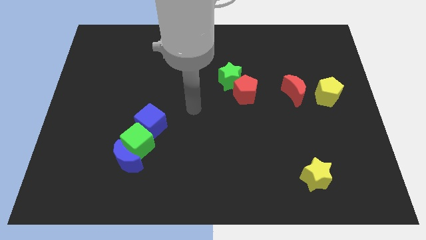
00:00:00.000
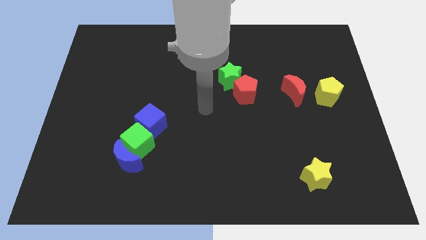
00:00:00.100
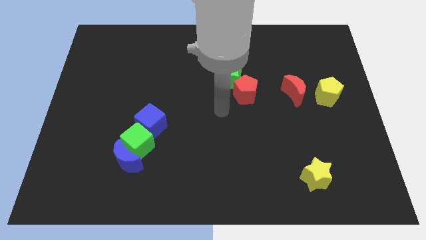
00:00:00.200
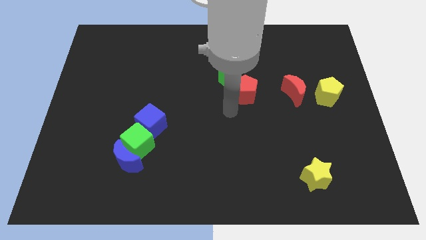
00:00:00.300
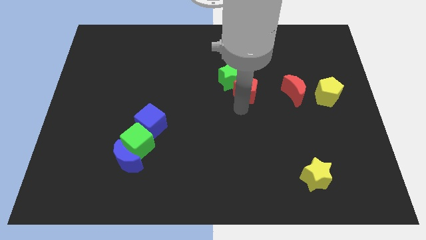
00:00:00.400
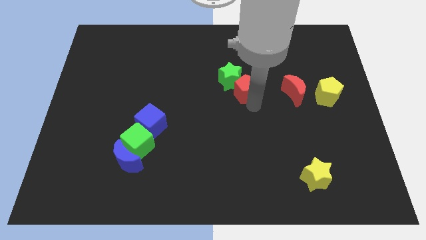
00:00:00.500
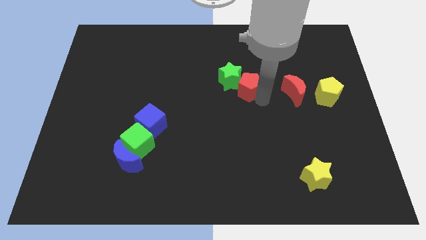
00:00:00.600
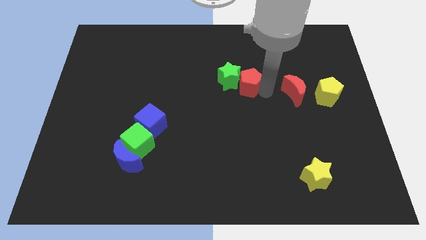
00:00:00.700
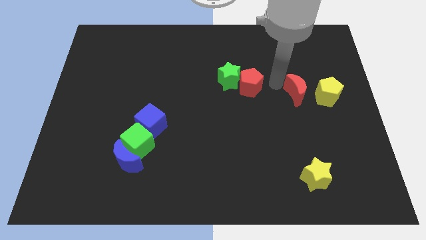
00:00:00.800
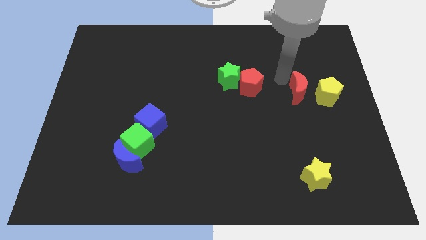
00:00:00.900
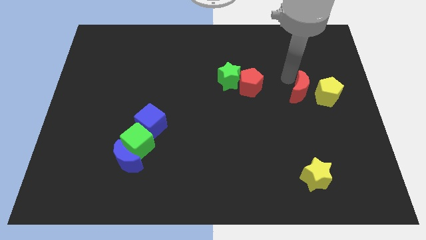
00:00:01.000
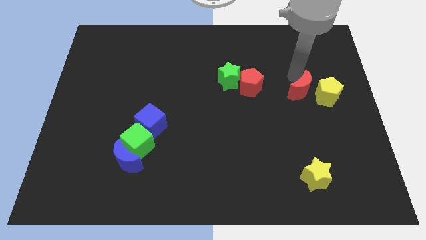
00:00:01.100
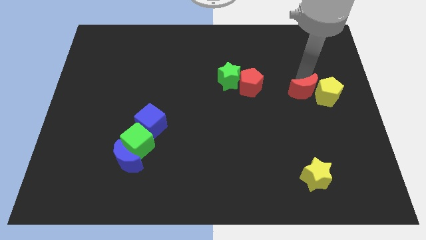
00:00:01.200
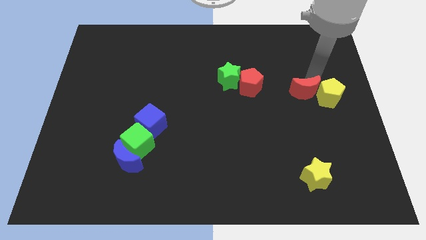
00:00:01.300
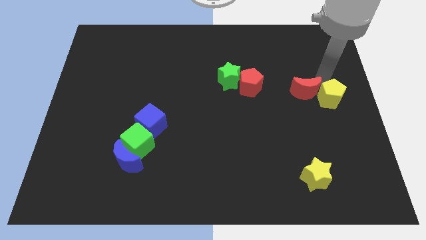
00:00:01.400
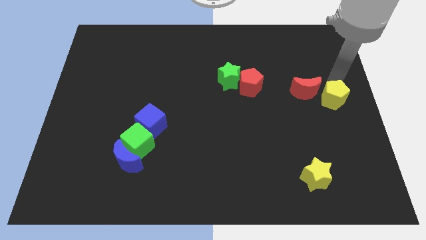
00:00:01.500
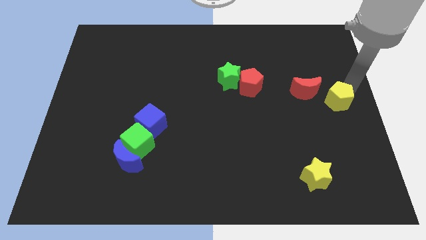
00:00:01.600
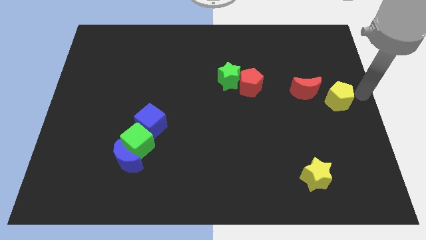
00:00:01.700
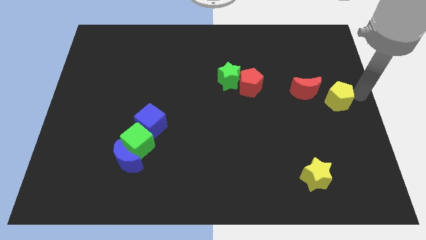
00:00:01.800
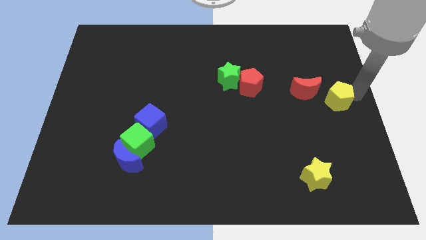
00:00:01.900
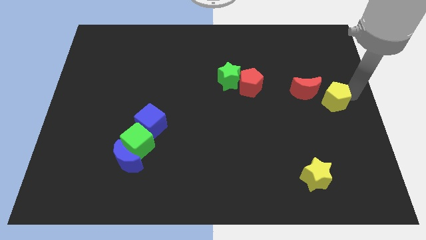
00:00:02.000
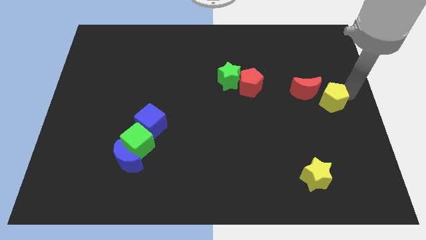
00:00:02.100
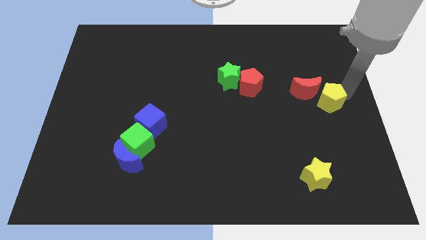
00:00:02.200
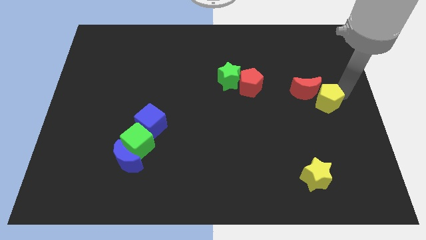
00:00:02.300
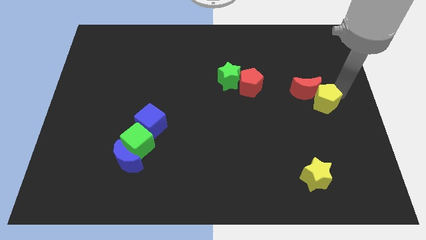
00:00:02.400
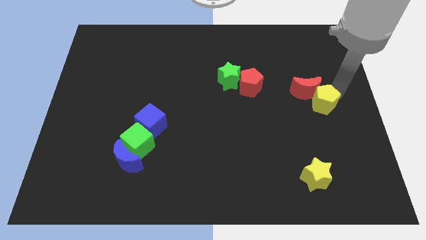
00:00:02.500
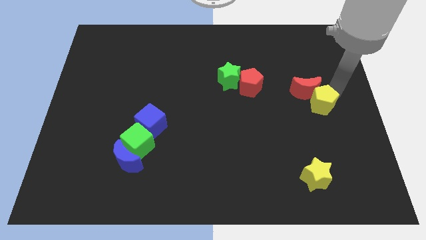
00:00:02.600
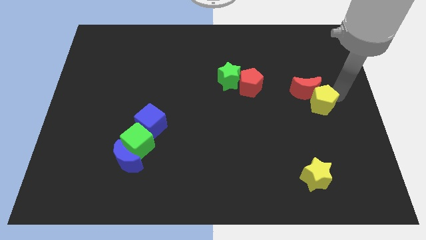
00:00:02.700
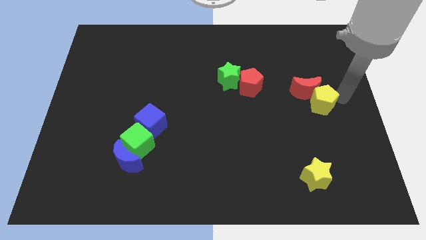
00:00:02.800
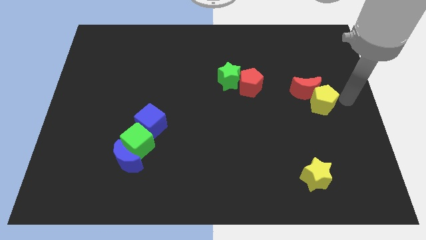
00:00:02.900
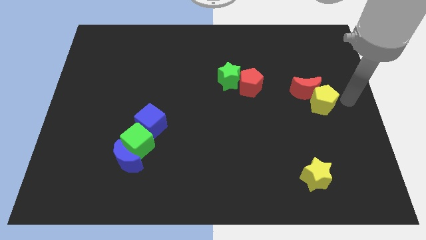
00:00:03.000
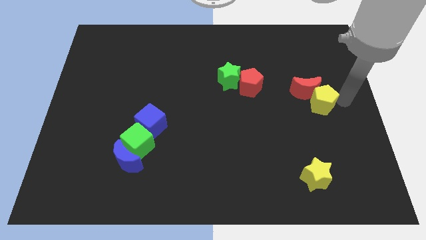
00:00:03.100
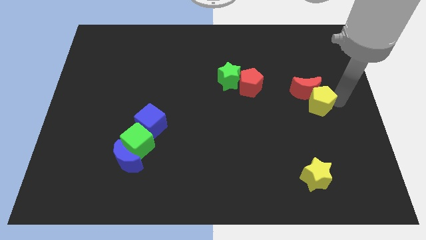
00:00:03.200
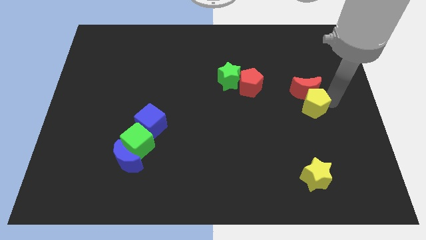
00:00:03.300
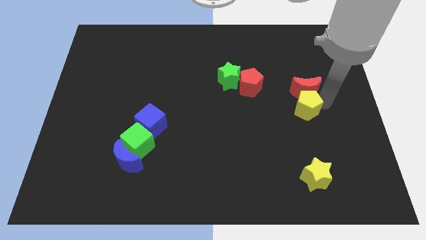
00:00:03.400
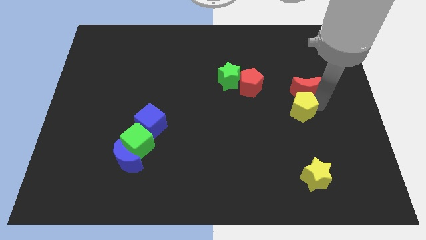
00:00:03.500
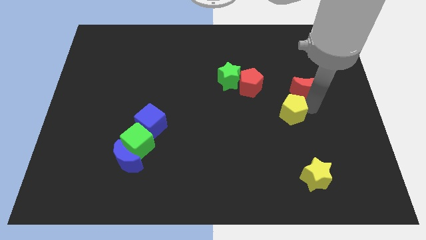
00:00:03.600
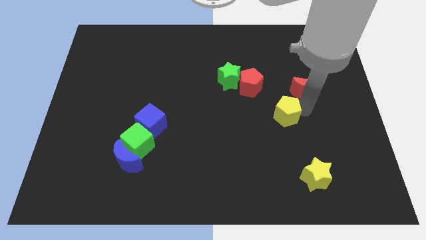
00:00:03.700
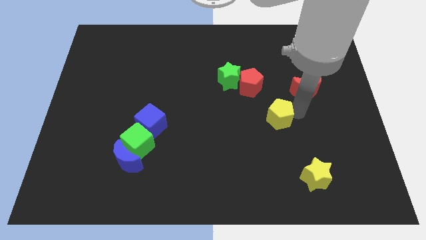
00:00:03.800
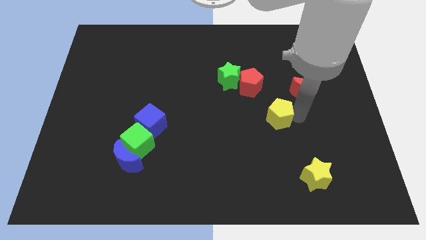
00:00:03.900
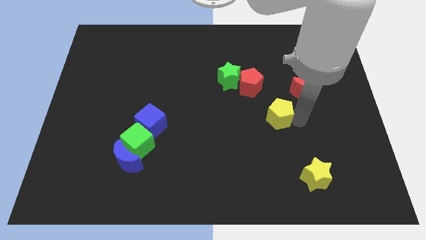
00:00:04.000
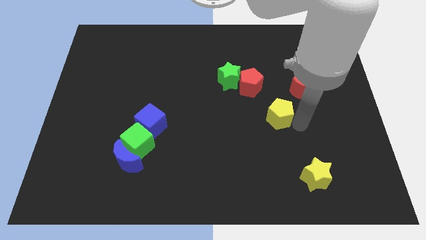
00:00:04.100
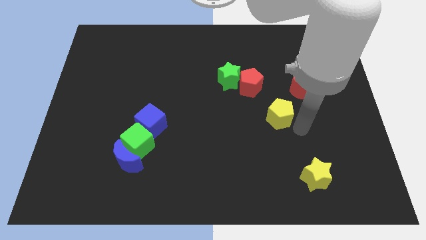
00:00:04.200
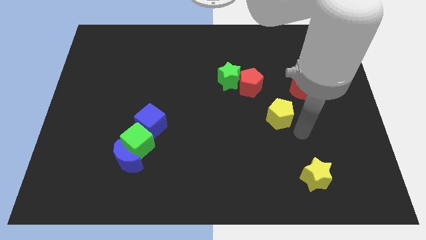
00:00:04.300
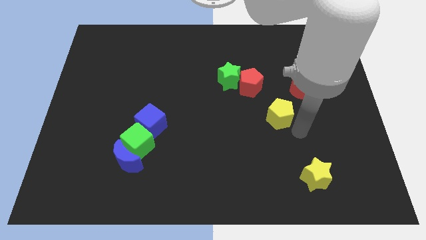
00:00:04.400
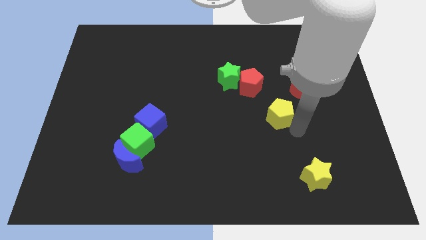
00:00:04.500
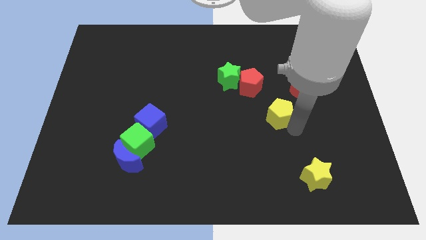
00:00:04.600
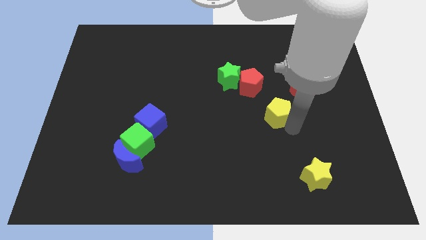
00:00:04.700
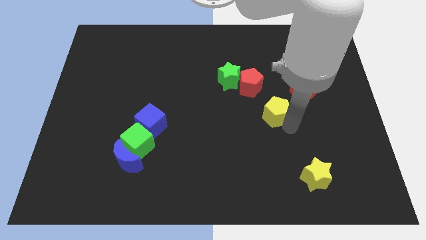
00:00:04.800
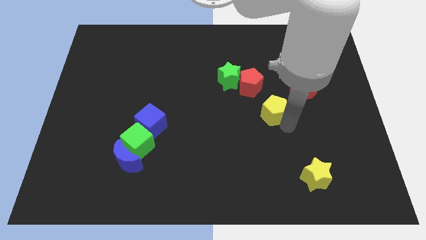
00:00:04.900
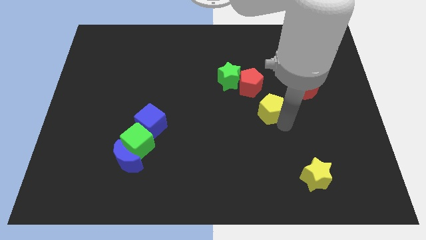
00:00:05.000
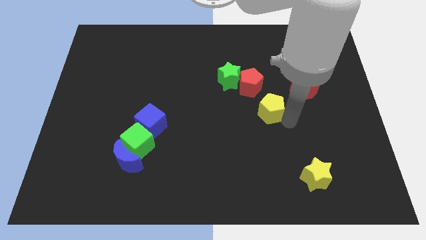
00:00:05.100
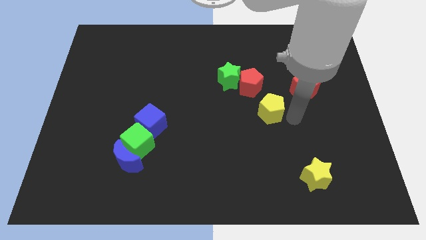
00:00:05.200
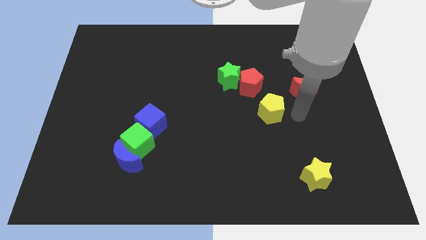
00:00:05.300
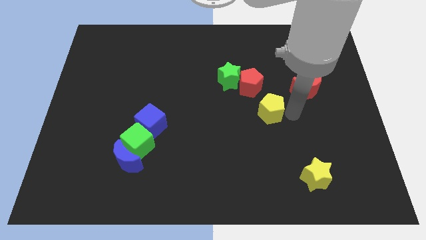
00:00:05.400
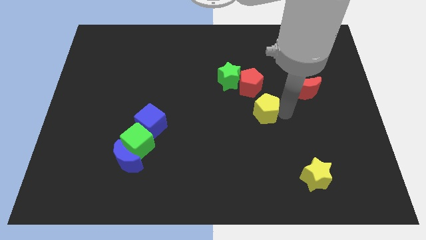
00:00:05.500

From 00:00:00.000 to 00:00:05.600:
push the yellow pentagon to the middle
